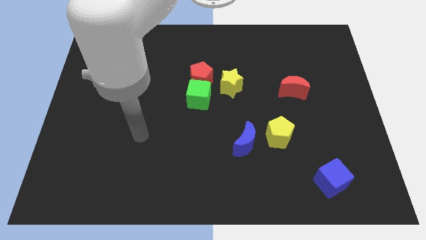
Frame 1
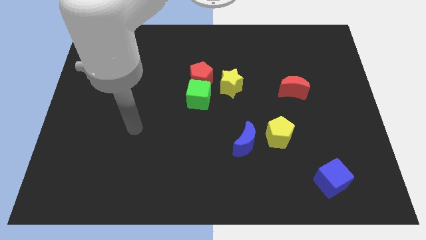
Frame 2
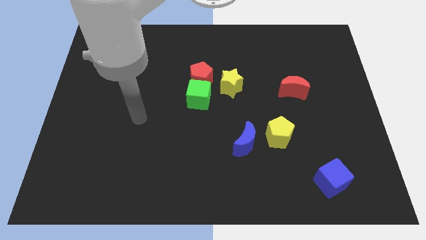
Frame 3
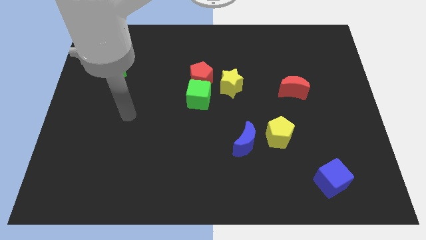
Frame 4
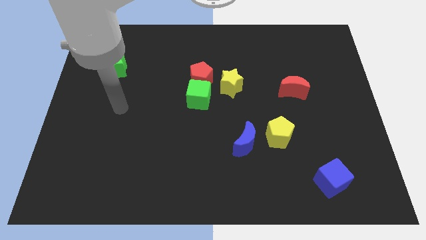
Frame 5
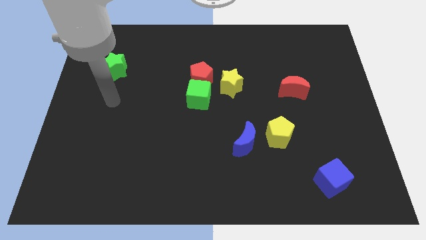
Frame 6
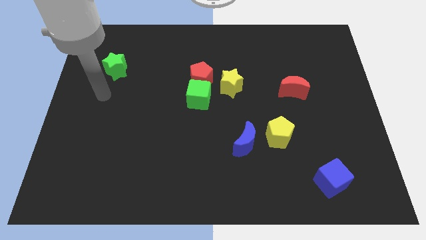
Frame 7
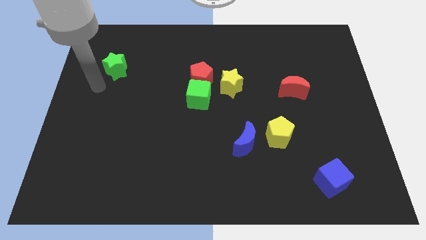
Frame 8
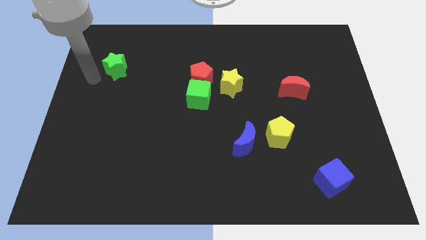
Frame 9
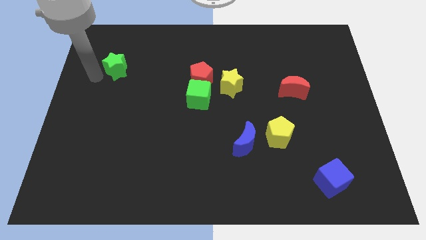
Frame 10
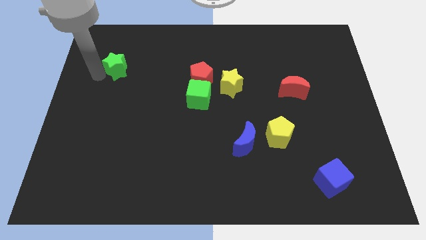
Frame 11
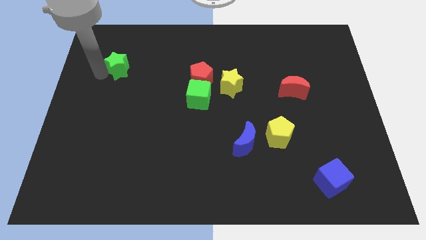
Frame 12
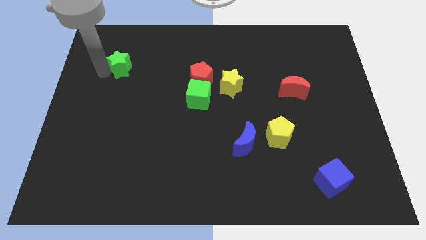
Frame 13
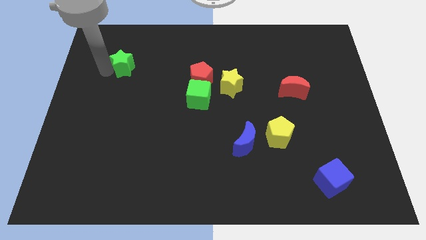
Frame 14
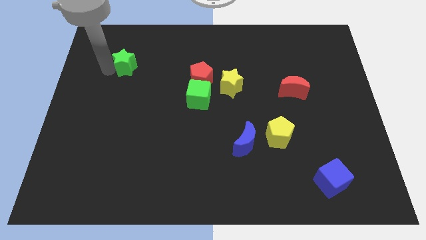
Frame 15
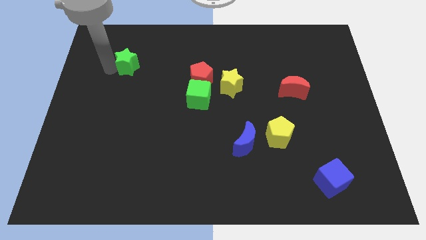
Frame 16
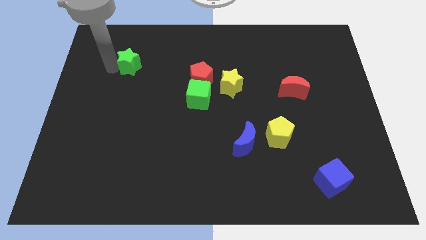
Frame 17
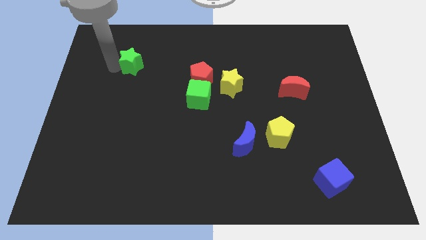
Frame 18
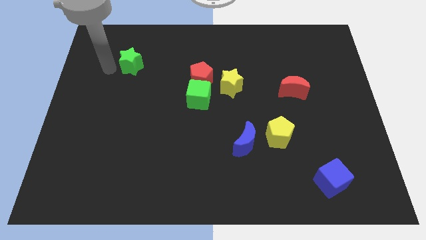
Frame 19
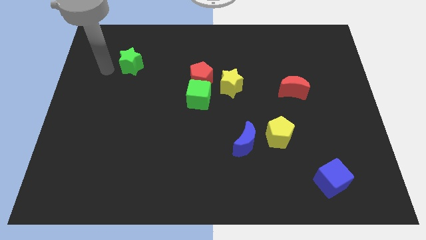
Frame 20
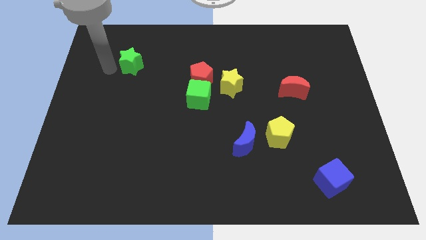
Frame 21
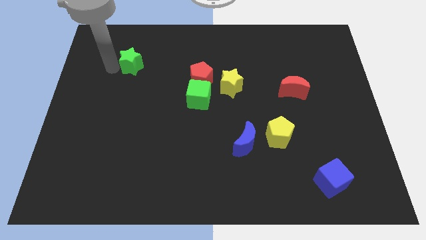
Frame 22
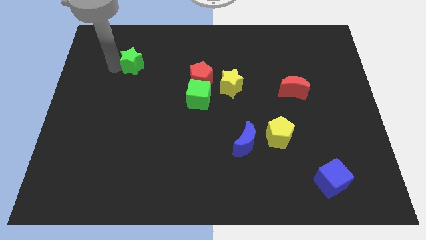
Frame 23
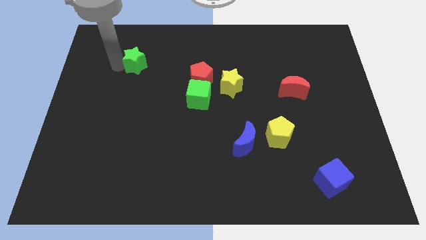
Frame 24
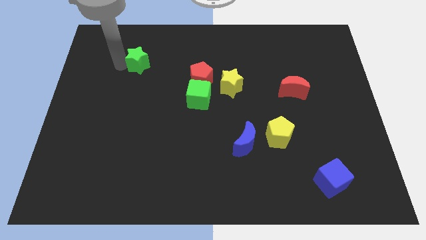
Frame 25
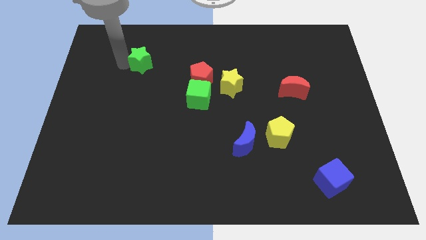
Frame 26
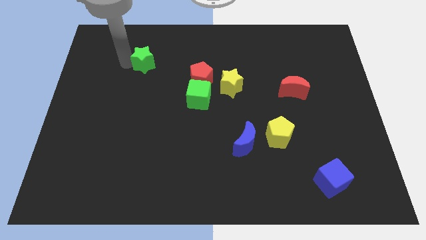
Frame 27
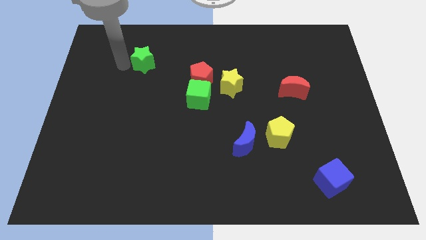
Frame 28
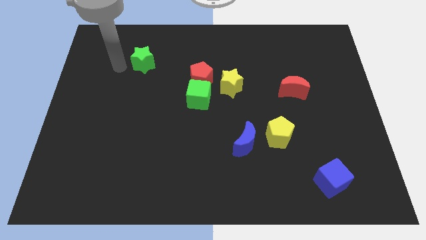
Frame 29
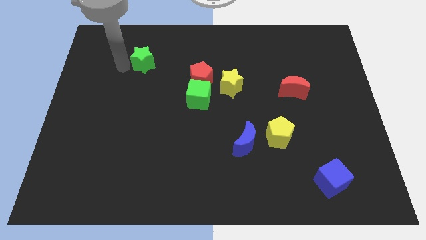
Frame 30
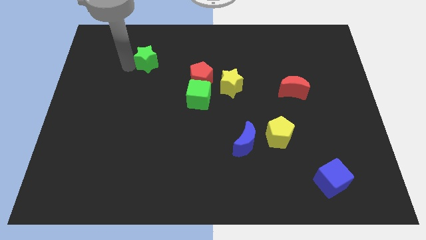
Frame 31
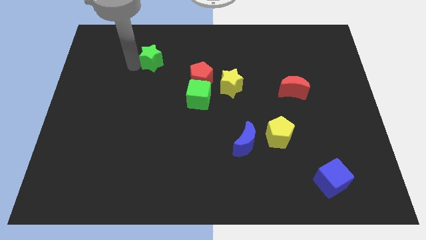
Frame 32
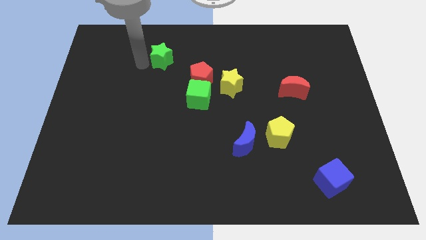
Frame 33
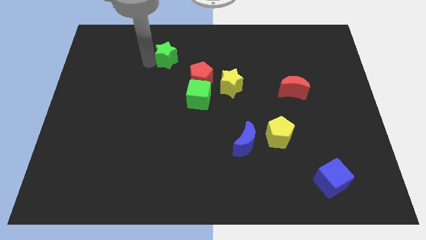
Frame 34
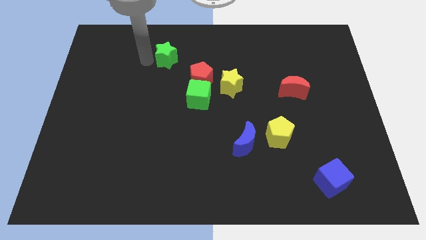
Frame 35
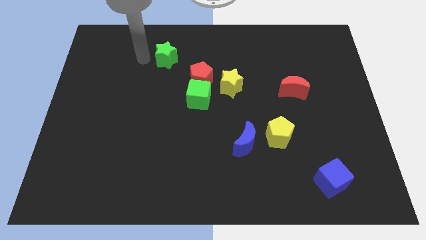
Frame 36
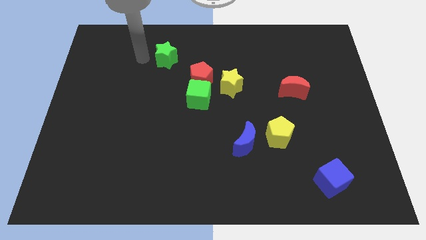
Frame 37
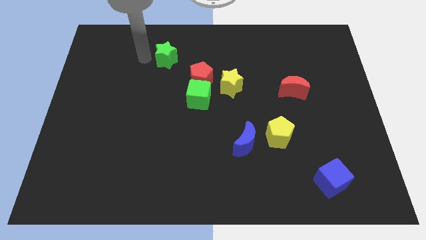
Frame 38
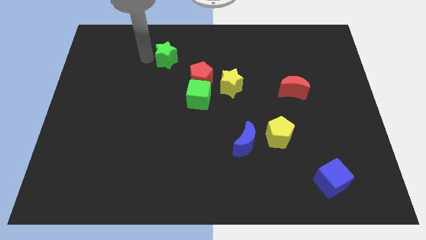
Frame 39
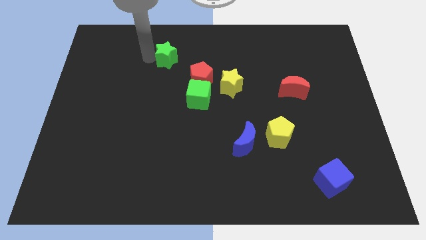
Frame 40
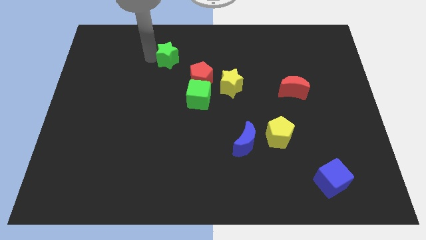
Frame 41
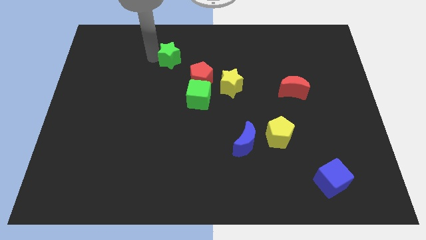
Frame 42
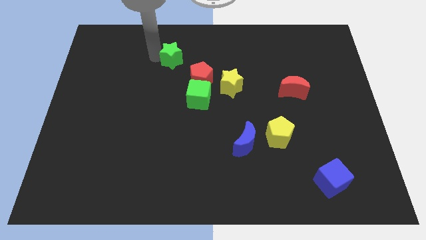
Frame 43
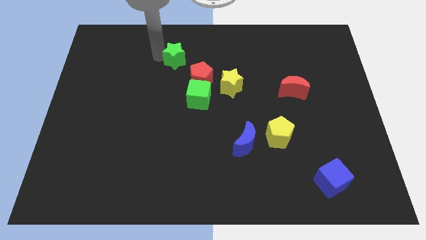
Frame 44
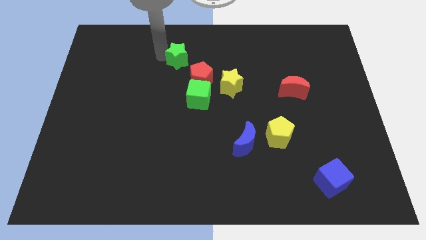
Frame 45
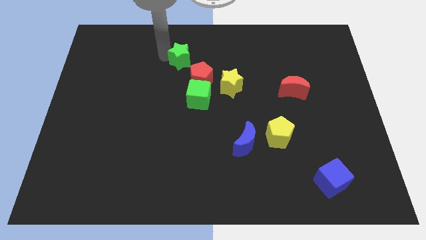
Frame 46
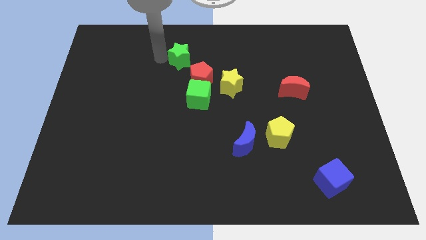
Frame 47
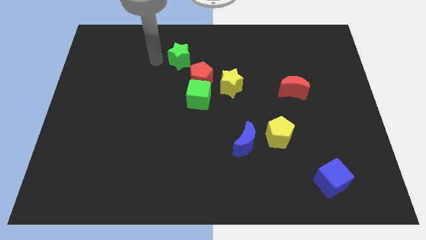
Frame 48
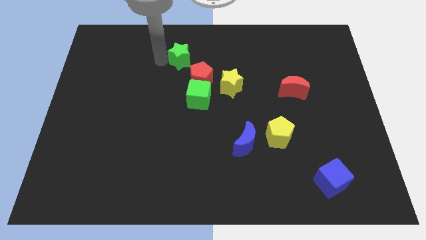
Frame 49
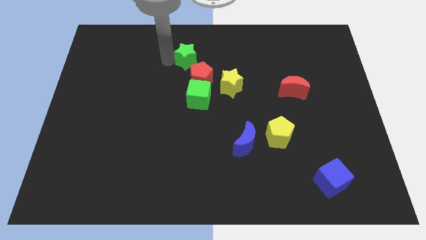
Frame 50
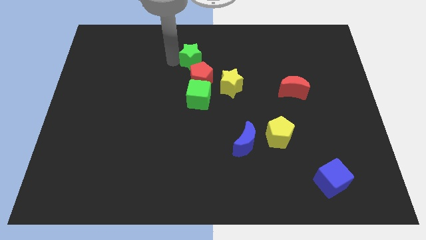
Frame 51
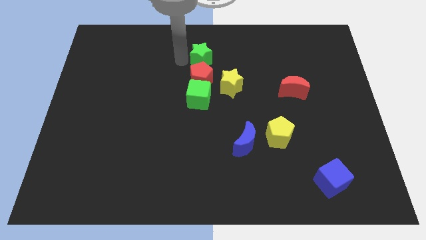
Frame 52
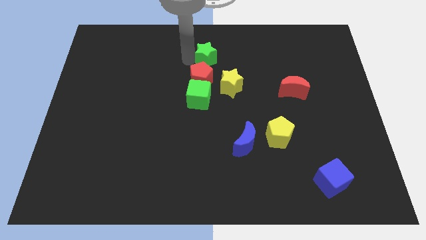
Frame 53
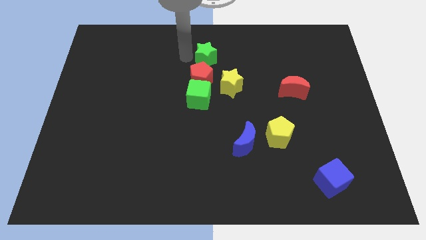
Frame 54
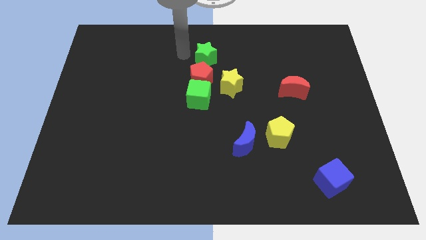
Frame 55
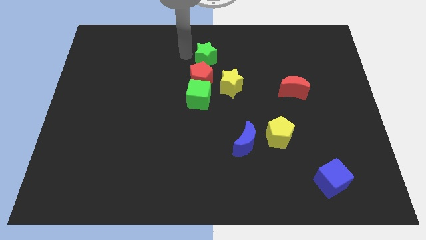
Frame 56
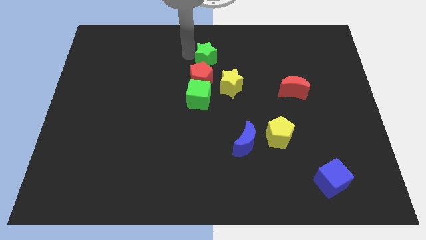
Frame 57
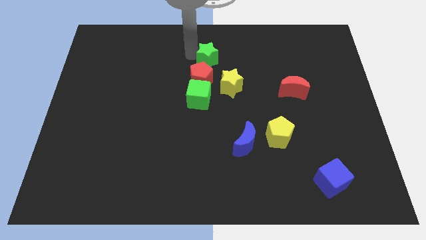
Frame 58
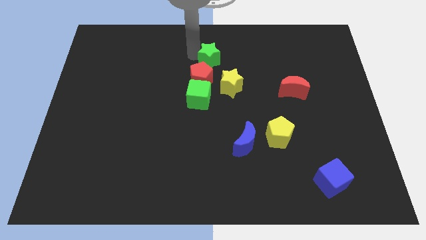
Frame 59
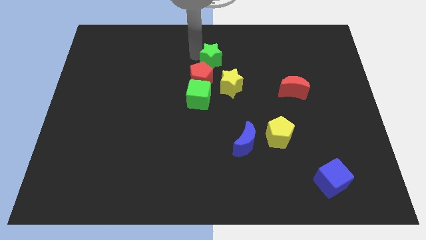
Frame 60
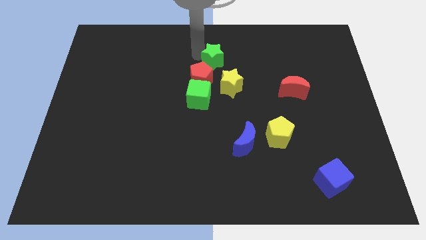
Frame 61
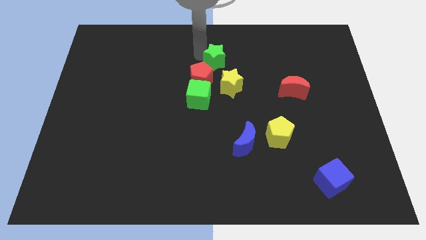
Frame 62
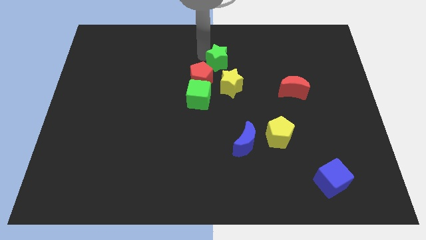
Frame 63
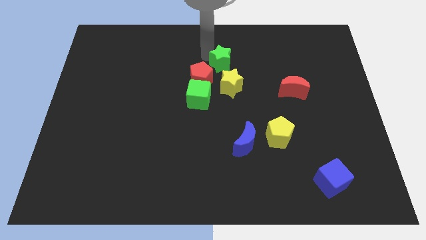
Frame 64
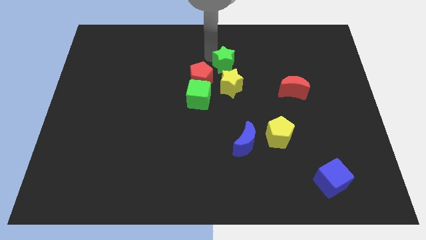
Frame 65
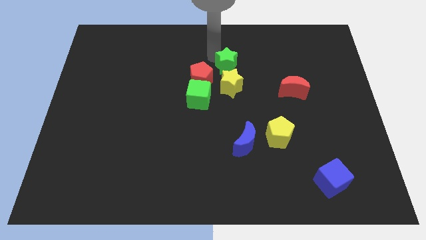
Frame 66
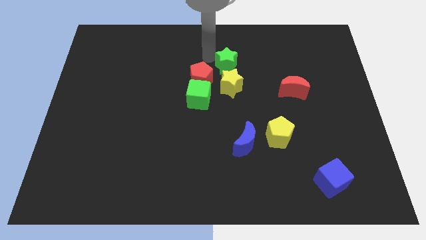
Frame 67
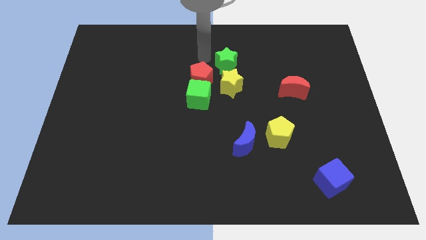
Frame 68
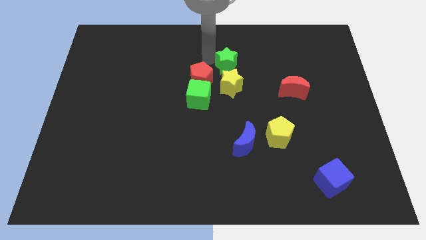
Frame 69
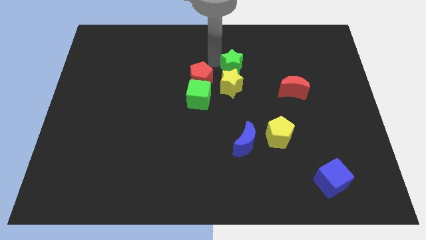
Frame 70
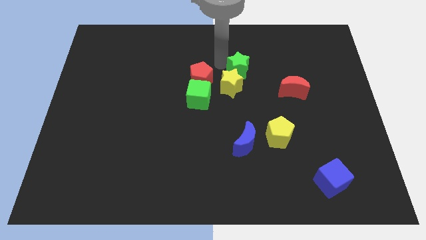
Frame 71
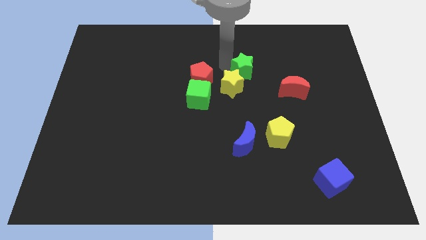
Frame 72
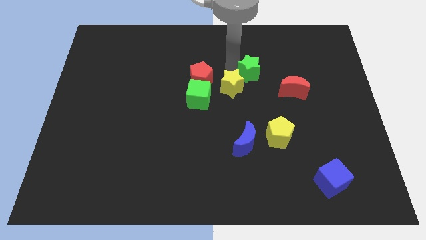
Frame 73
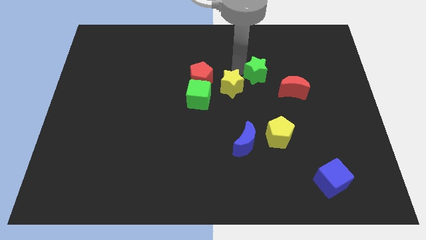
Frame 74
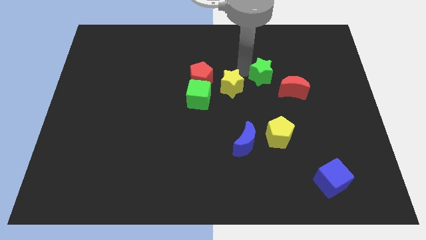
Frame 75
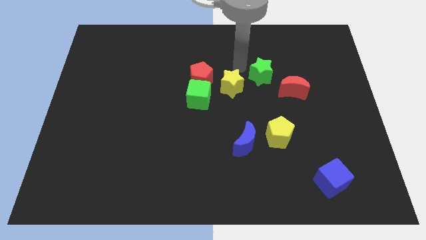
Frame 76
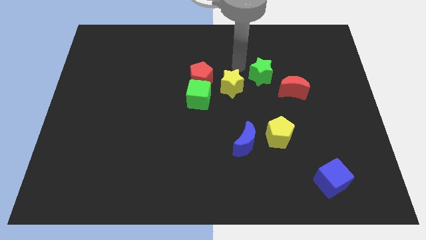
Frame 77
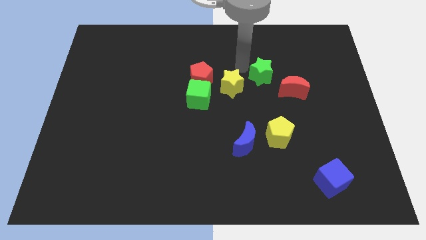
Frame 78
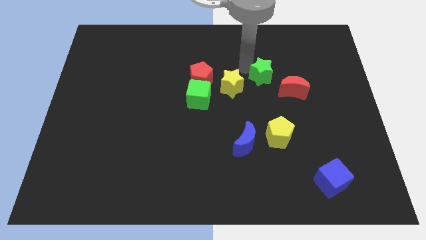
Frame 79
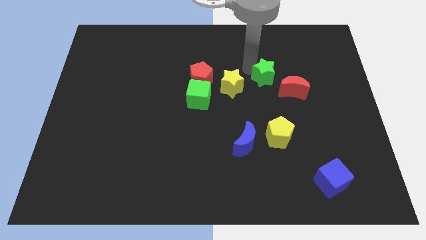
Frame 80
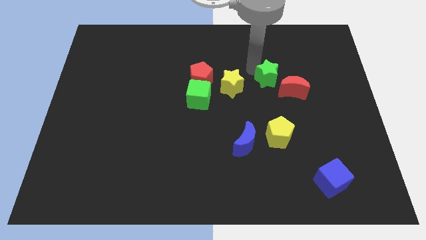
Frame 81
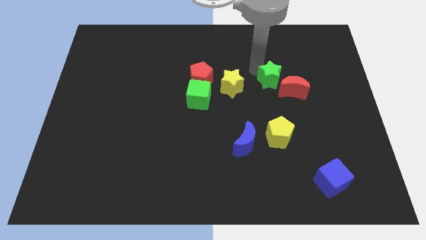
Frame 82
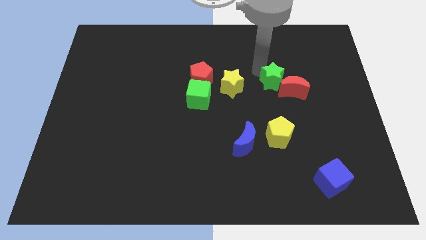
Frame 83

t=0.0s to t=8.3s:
move the green star close to the red moon
